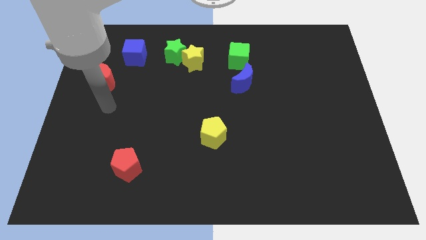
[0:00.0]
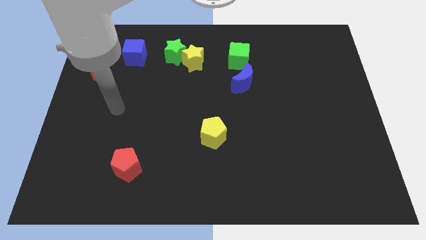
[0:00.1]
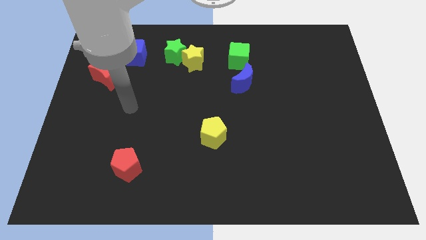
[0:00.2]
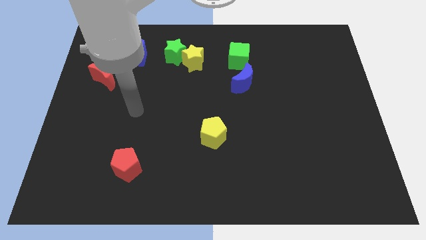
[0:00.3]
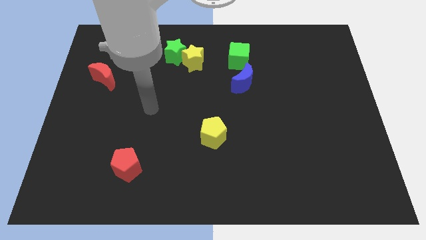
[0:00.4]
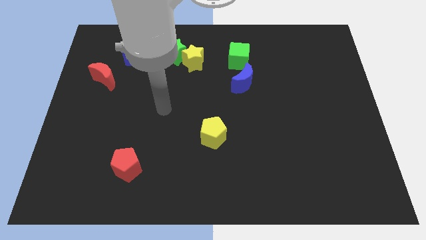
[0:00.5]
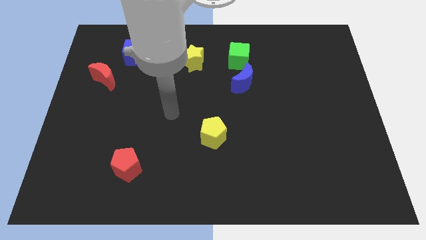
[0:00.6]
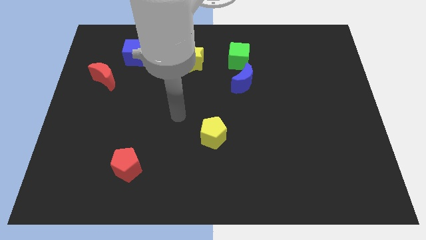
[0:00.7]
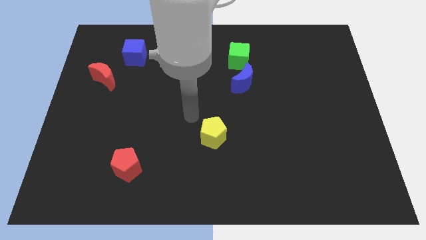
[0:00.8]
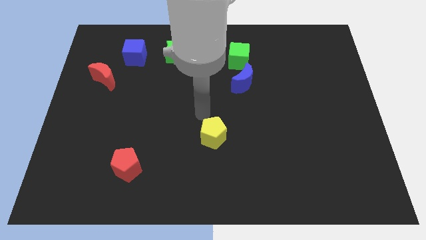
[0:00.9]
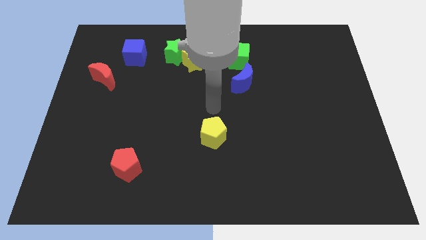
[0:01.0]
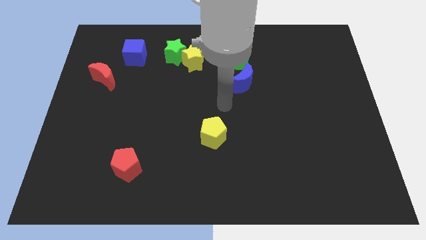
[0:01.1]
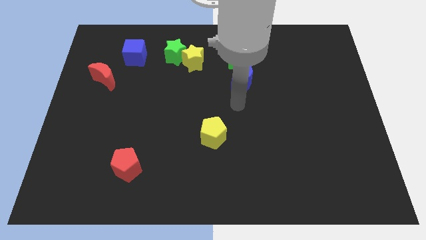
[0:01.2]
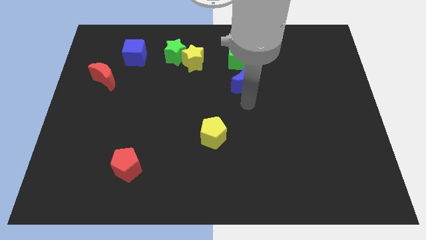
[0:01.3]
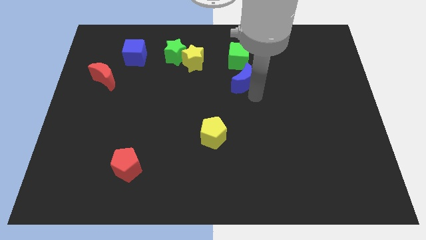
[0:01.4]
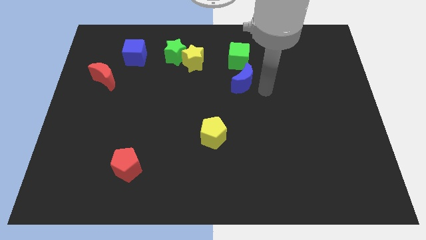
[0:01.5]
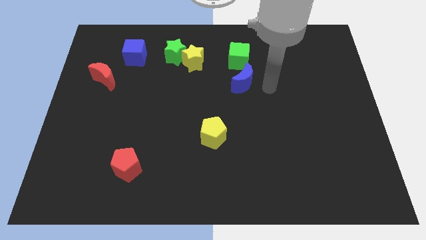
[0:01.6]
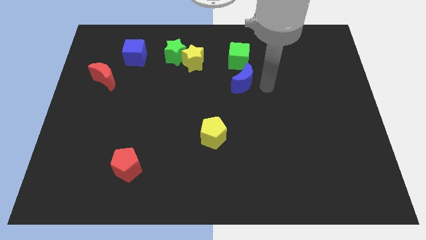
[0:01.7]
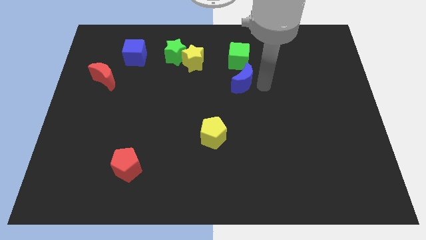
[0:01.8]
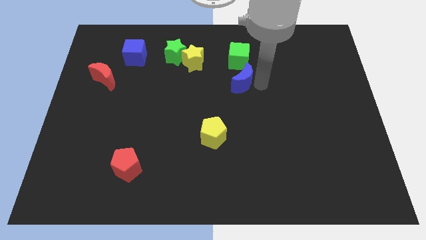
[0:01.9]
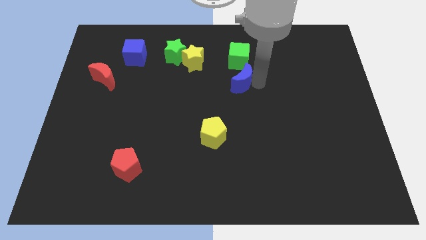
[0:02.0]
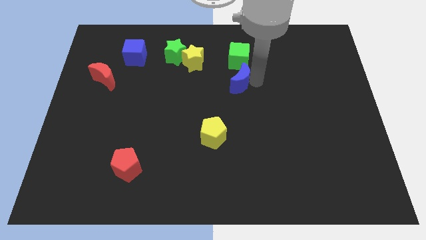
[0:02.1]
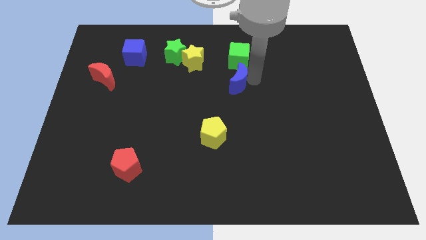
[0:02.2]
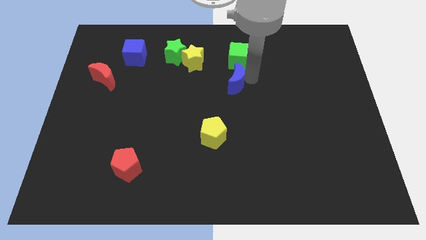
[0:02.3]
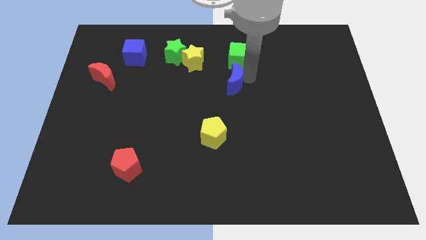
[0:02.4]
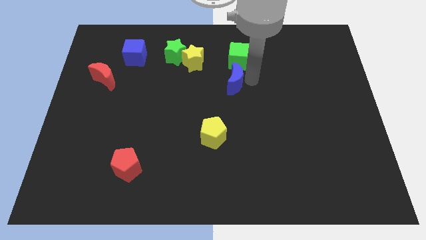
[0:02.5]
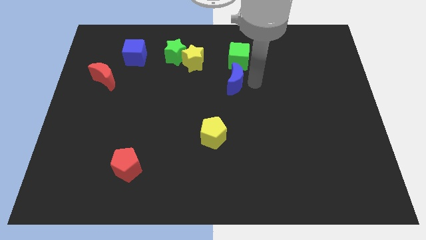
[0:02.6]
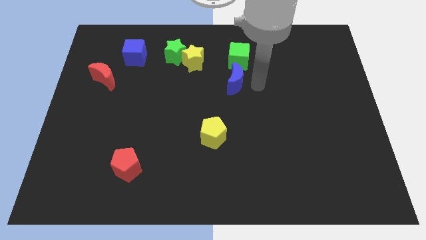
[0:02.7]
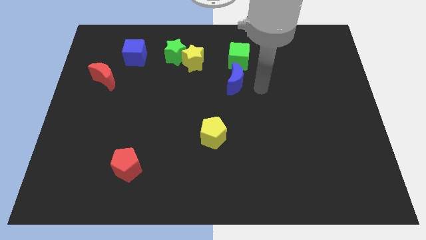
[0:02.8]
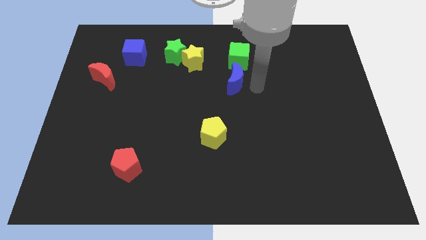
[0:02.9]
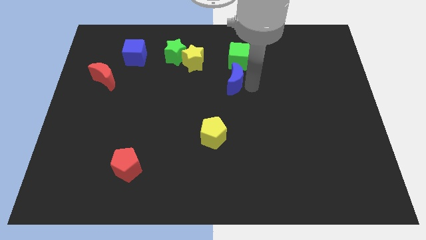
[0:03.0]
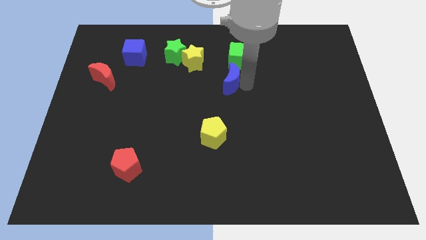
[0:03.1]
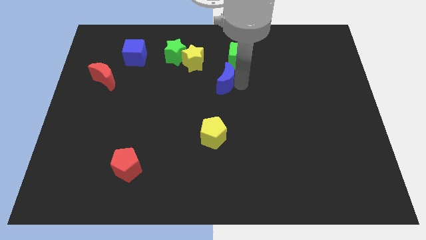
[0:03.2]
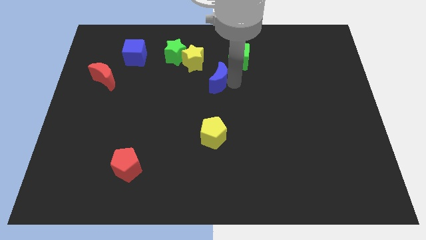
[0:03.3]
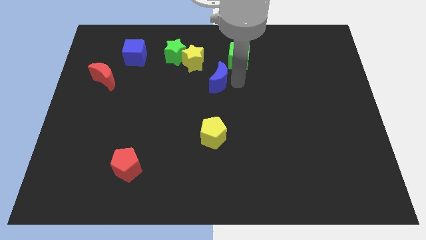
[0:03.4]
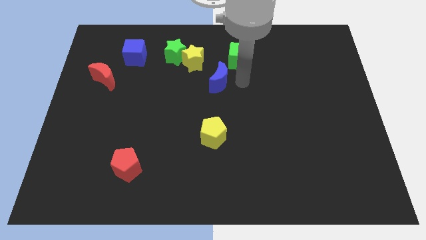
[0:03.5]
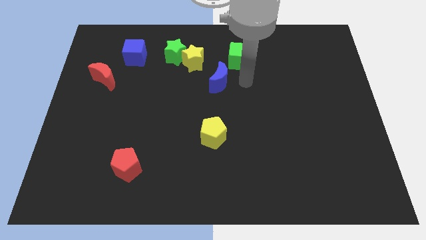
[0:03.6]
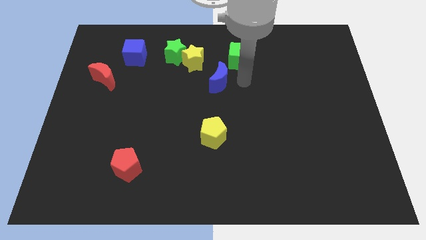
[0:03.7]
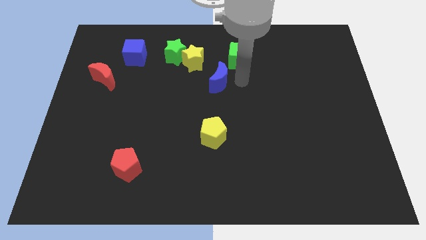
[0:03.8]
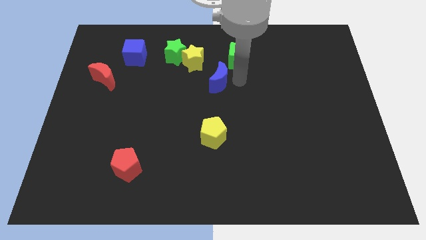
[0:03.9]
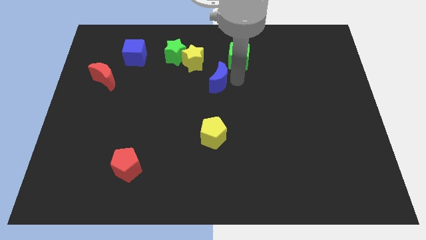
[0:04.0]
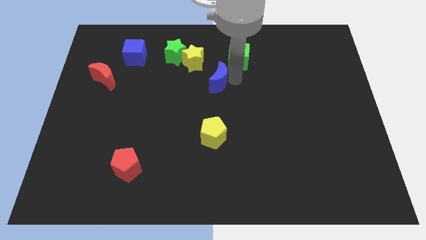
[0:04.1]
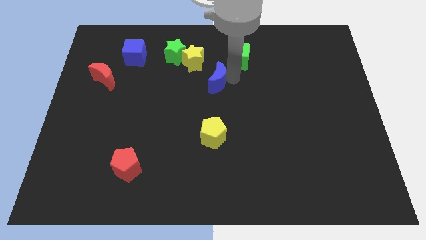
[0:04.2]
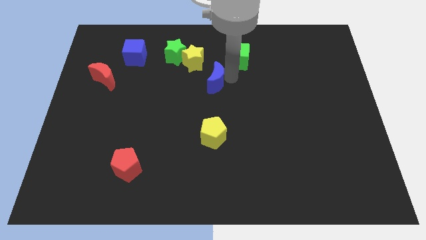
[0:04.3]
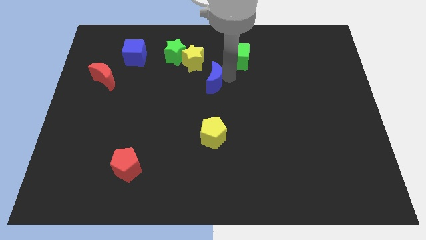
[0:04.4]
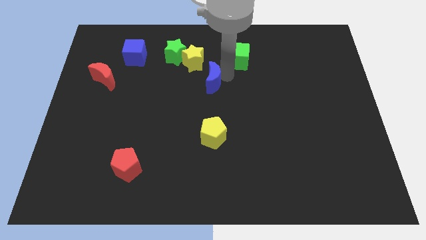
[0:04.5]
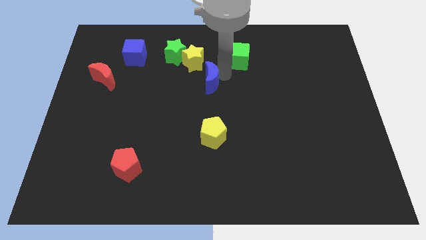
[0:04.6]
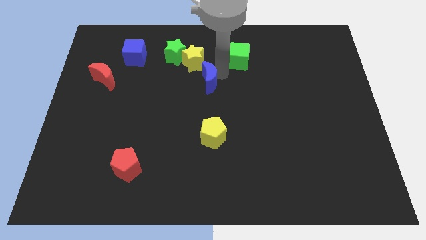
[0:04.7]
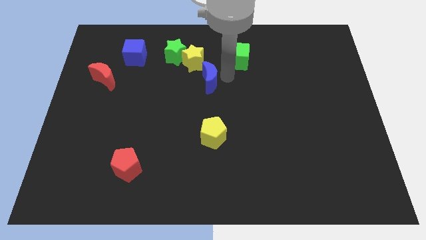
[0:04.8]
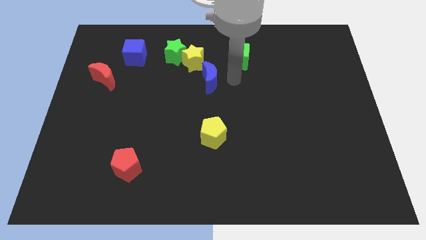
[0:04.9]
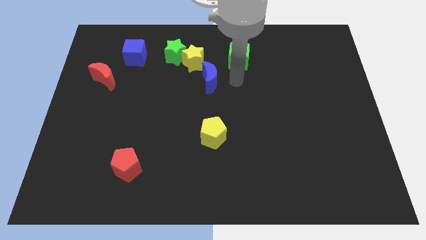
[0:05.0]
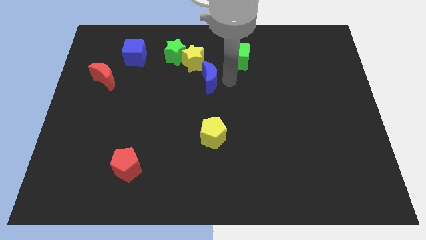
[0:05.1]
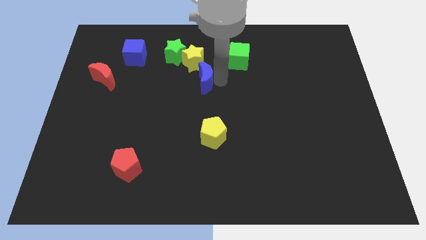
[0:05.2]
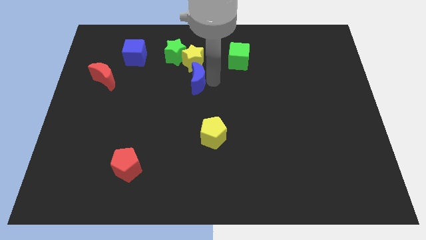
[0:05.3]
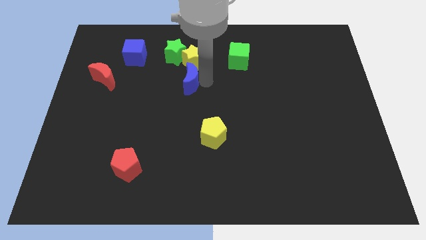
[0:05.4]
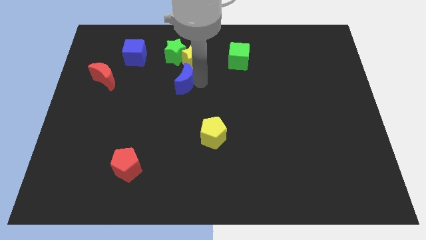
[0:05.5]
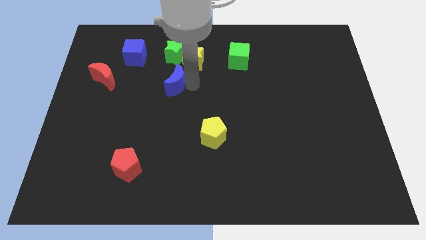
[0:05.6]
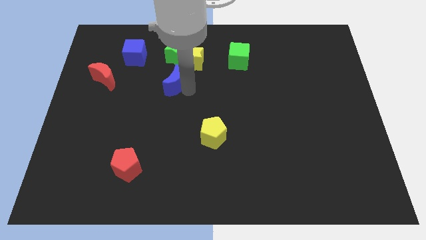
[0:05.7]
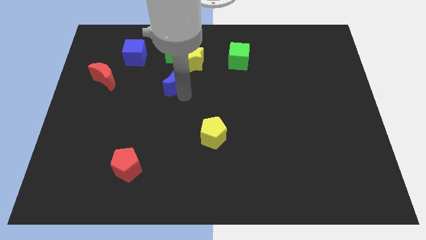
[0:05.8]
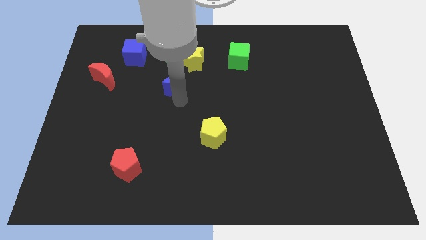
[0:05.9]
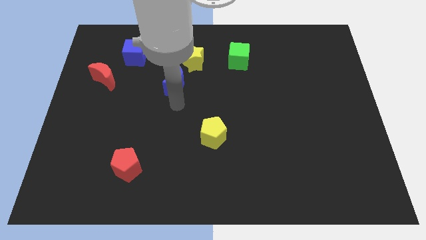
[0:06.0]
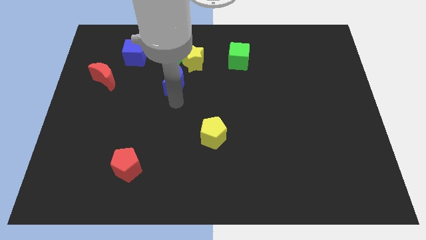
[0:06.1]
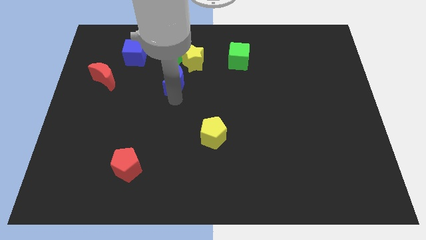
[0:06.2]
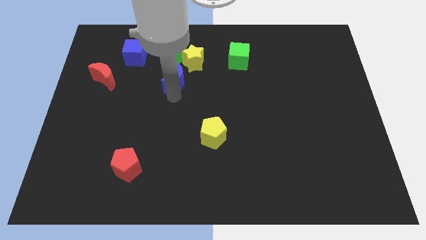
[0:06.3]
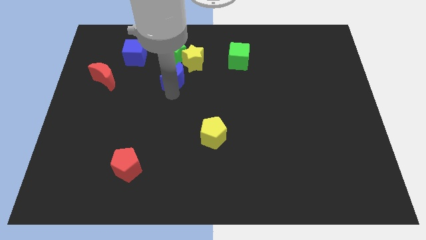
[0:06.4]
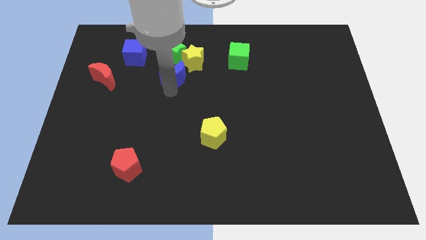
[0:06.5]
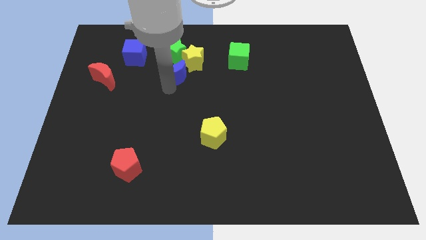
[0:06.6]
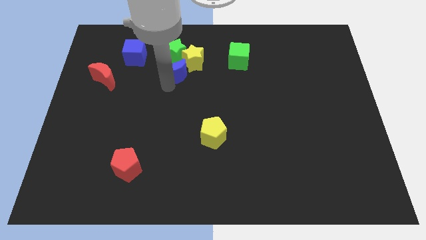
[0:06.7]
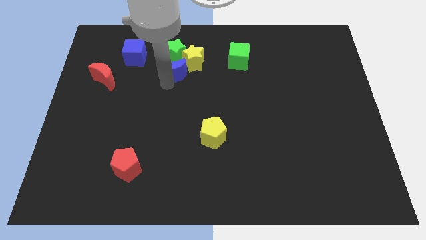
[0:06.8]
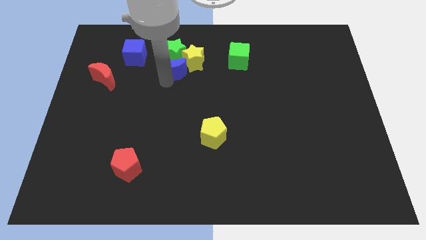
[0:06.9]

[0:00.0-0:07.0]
push the blue moon to the green star
